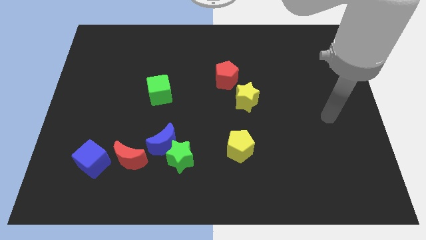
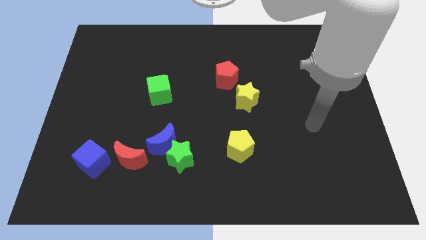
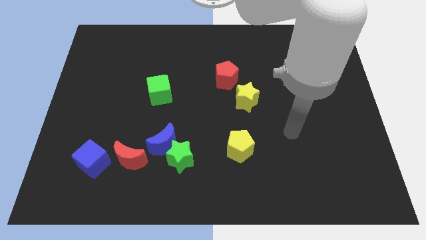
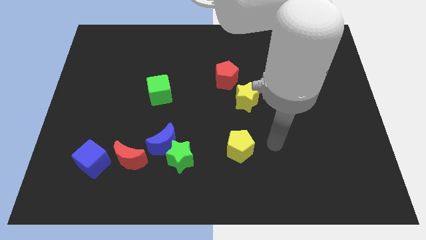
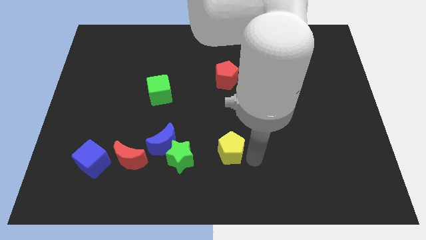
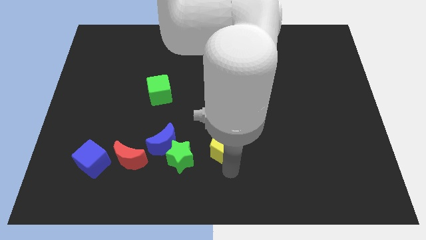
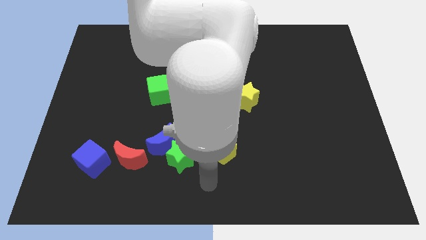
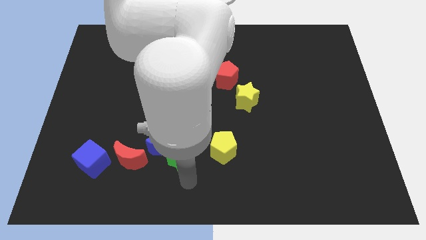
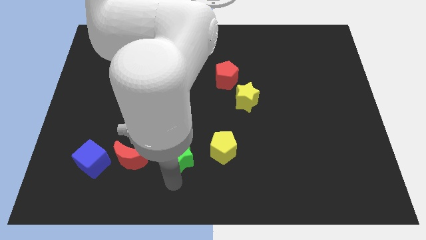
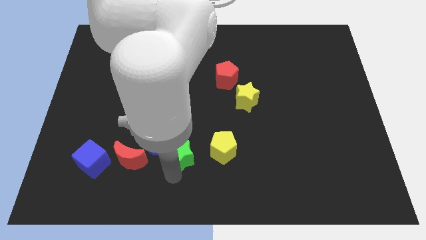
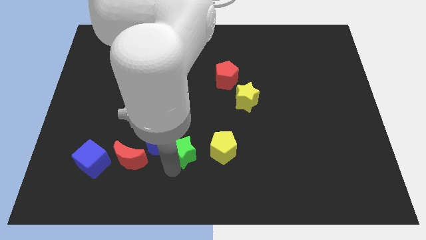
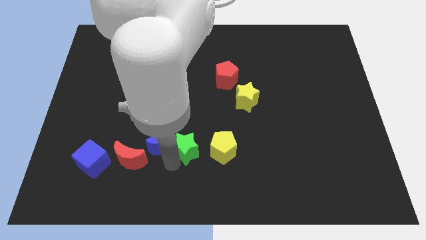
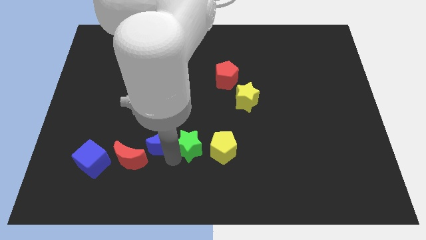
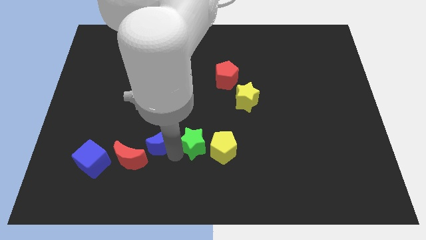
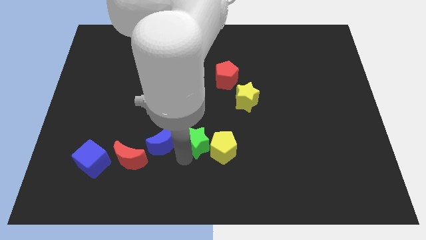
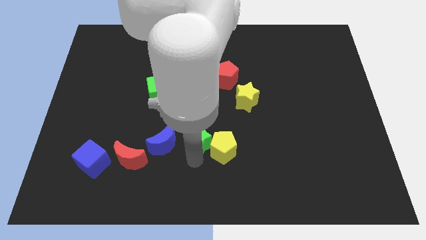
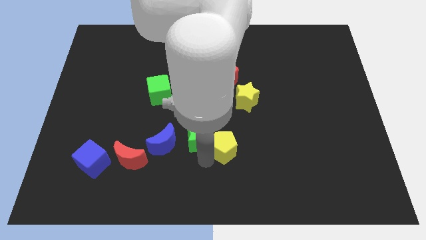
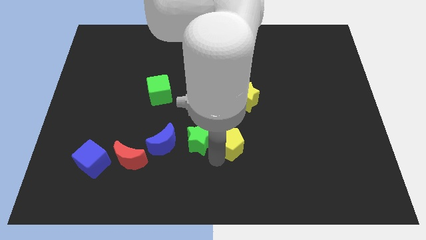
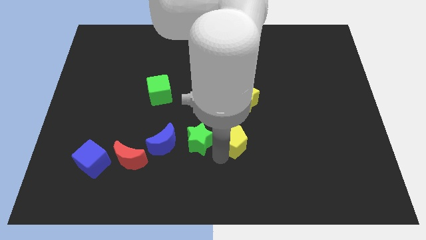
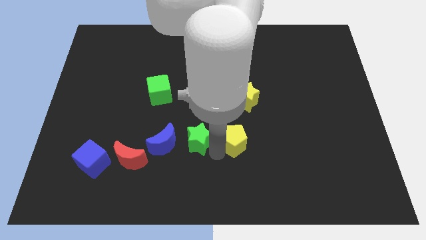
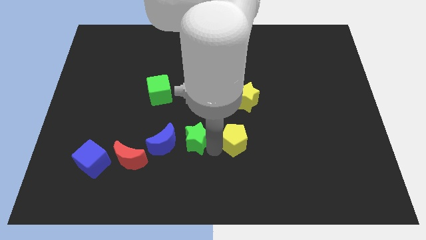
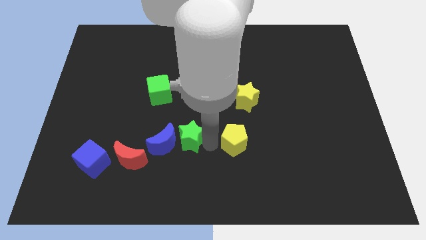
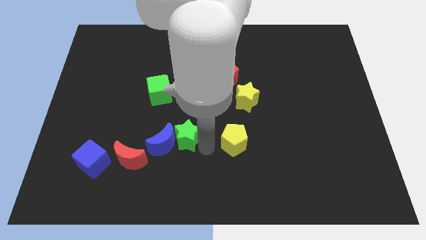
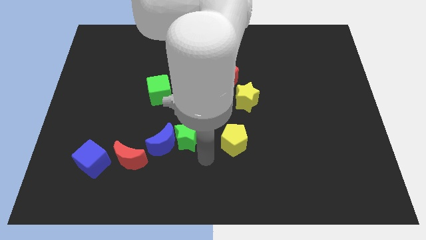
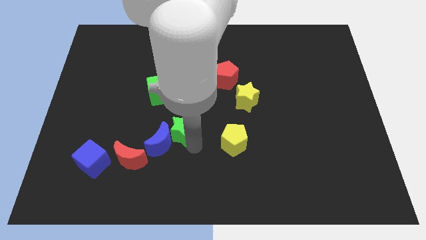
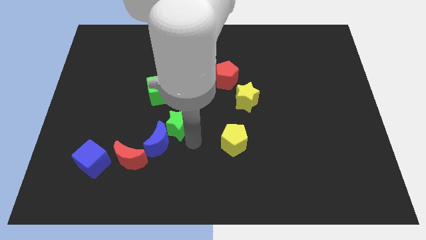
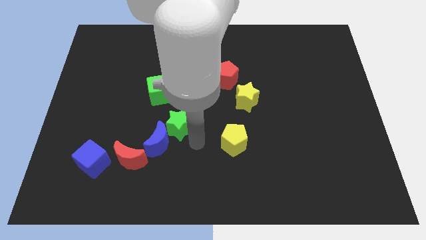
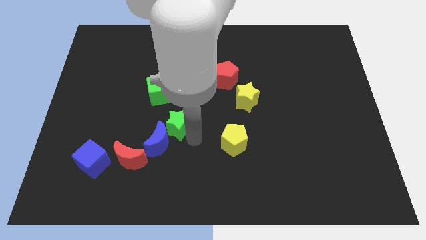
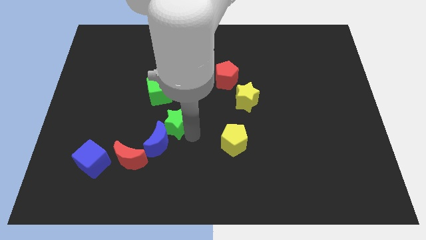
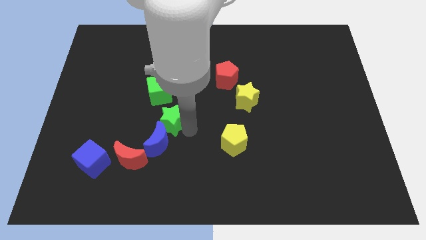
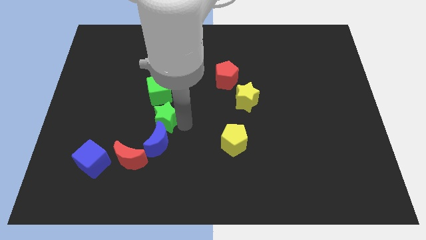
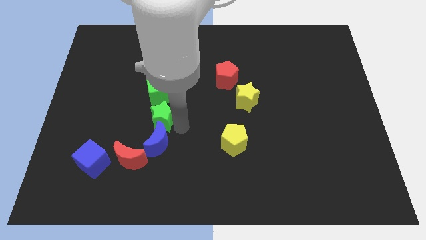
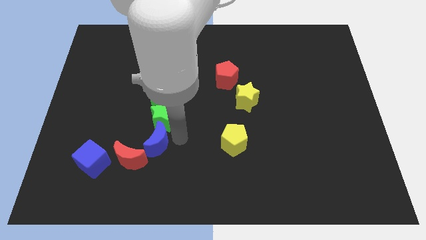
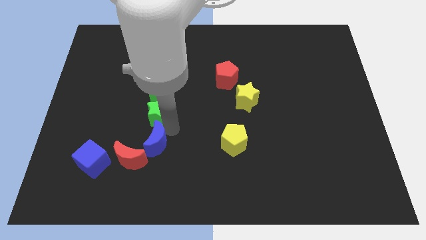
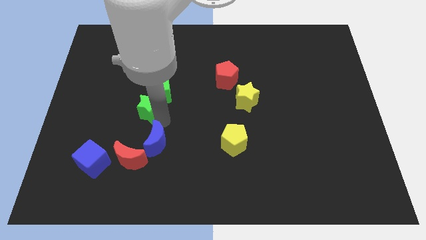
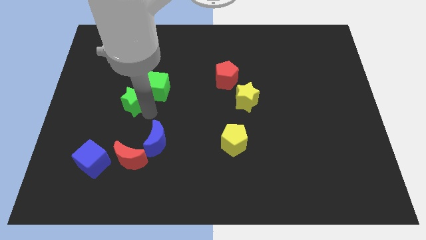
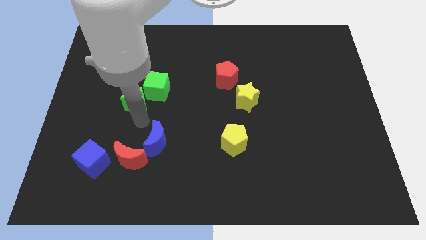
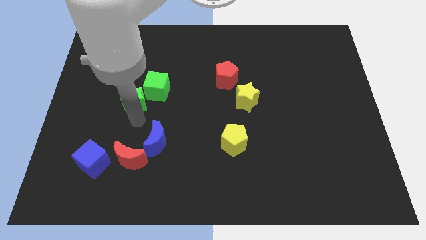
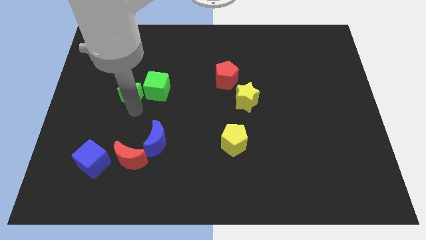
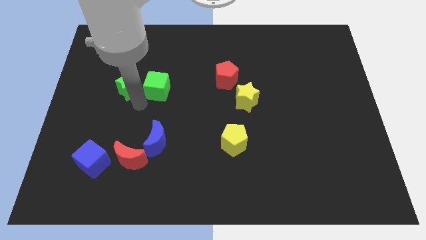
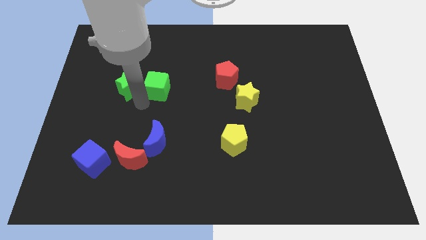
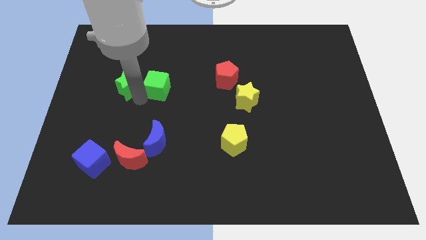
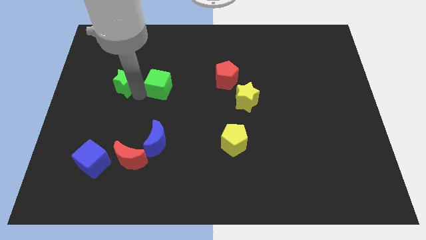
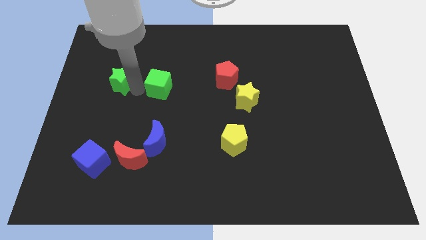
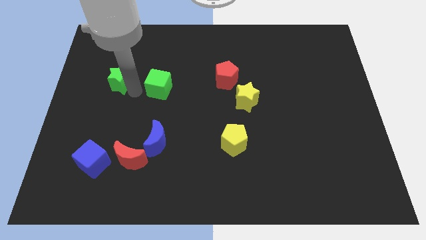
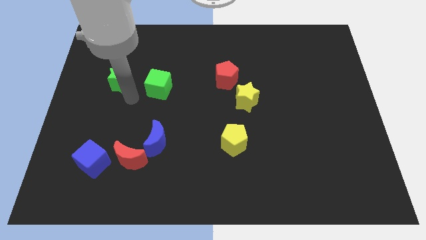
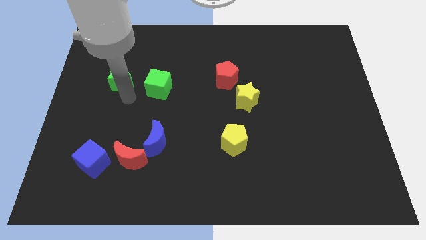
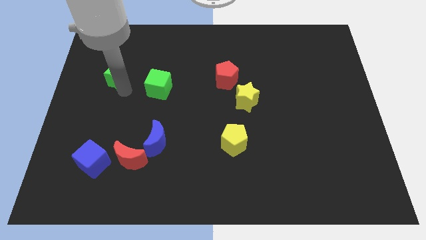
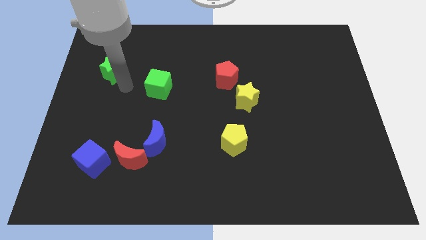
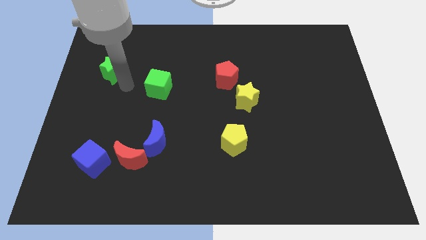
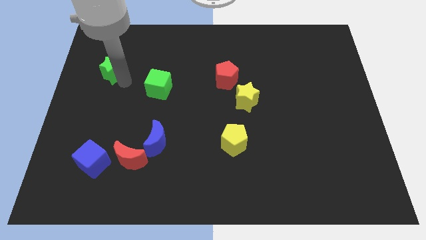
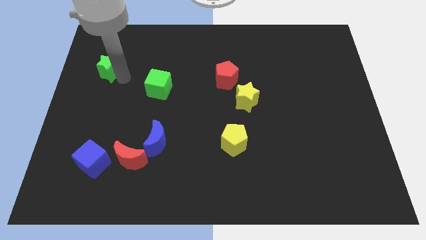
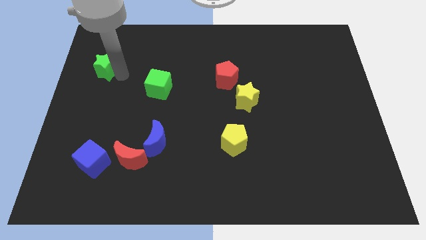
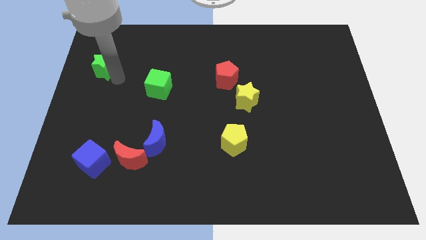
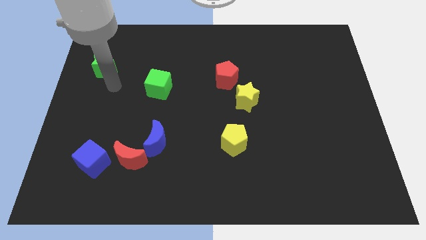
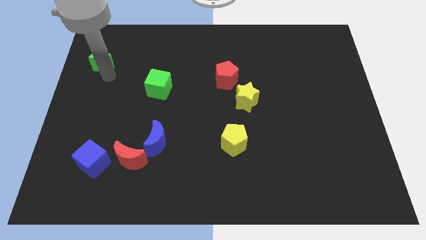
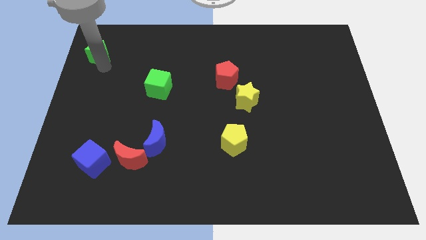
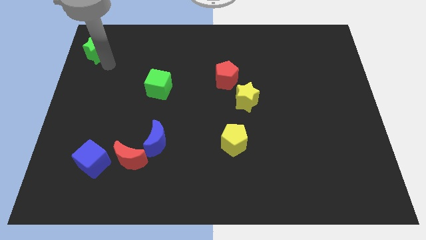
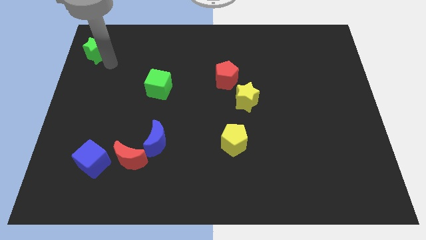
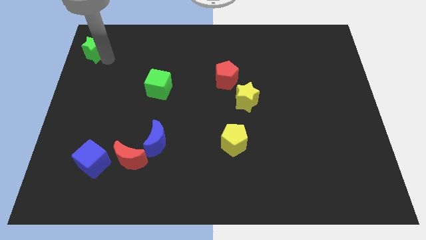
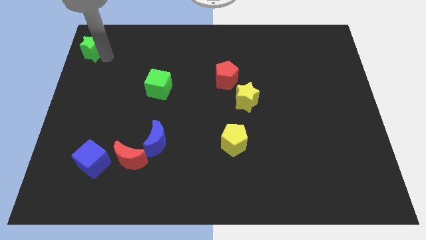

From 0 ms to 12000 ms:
slide the green star to the top left

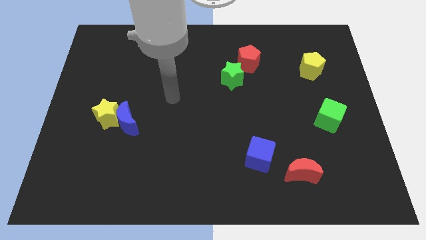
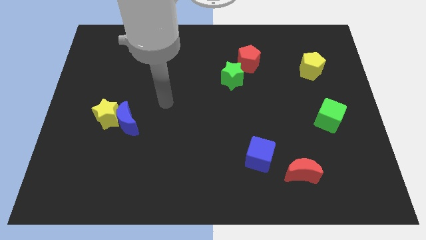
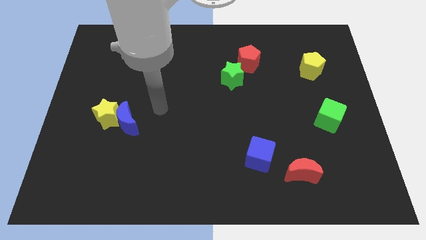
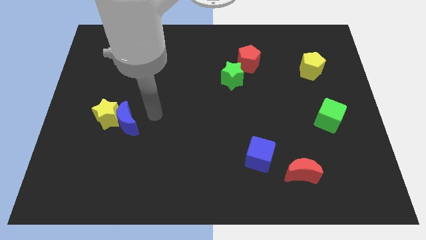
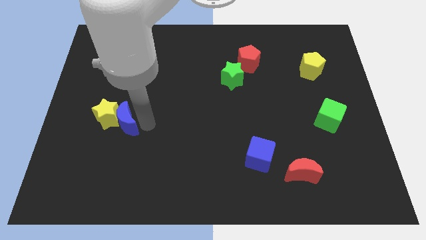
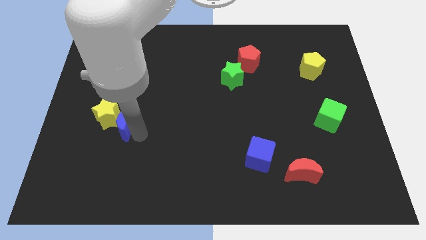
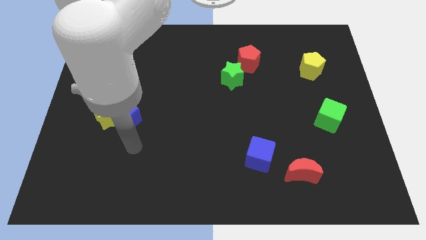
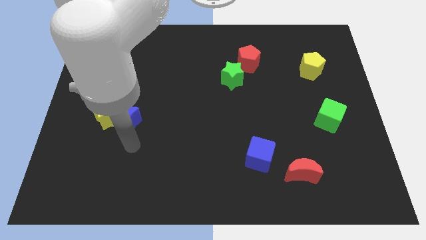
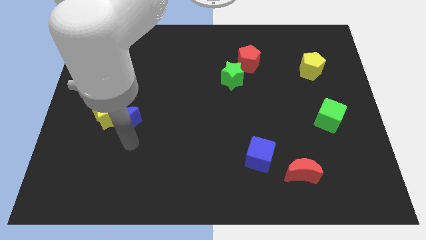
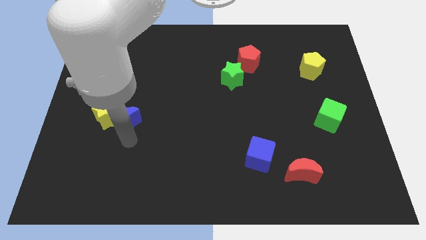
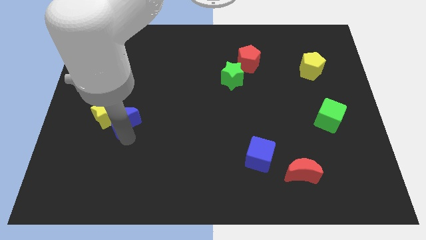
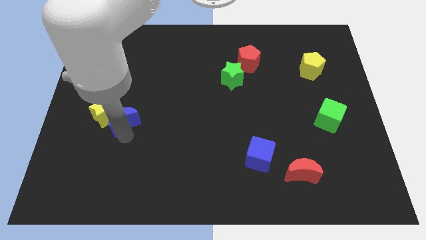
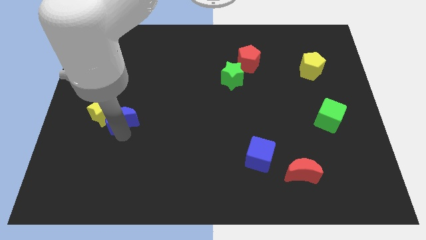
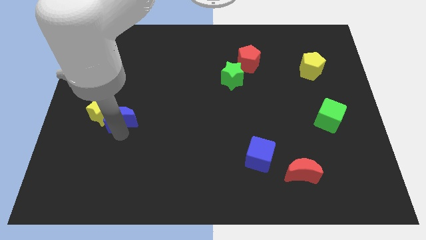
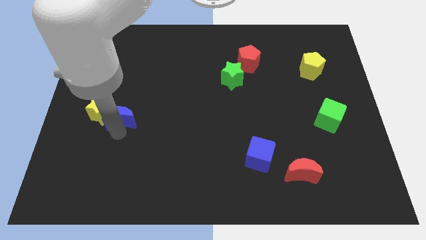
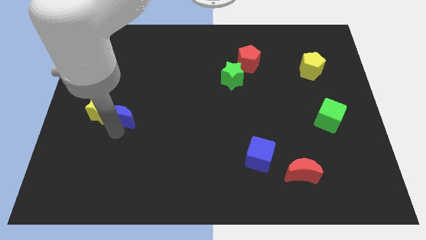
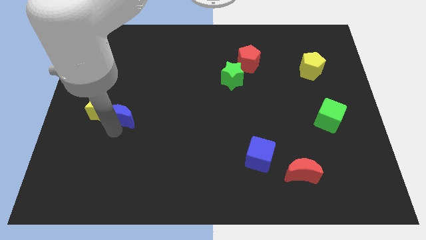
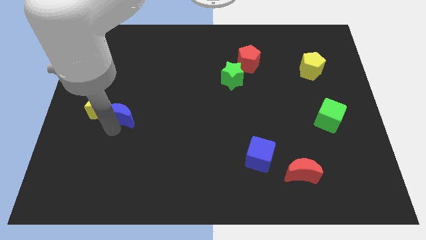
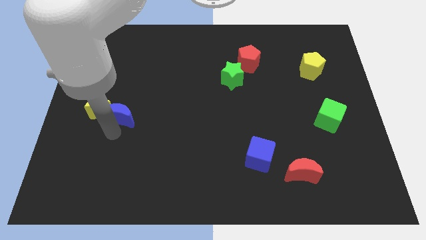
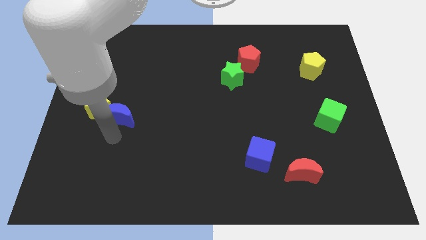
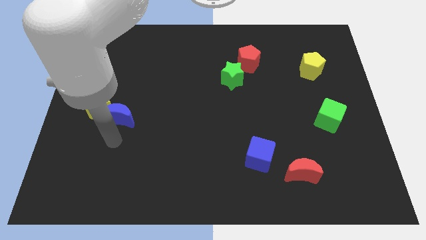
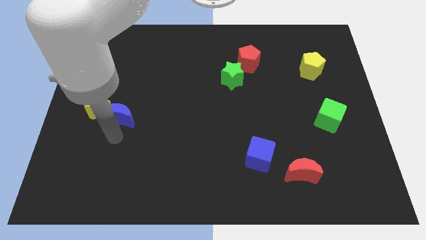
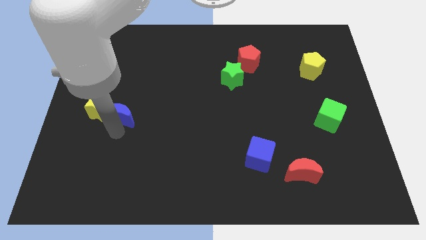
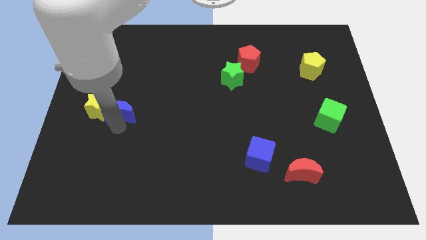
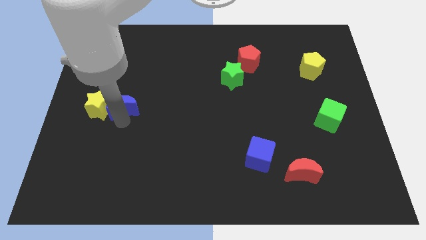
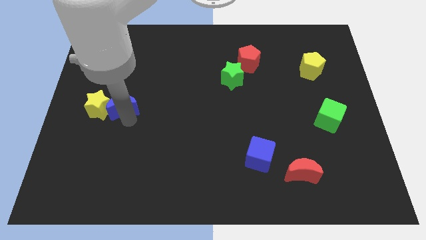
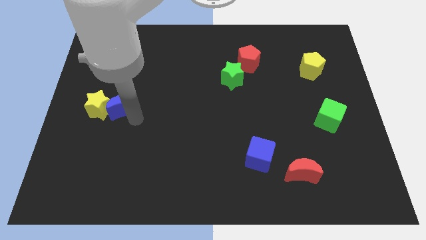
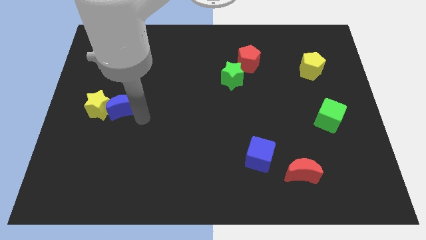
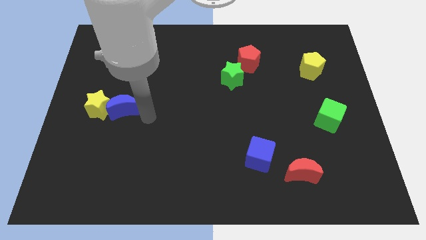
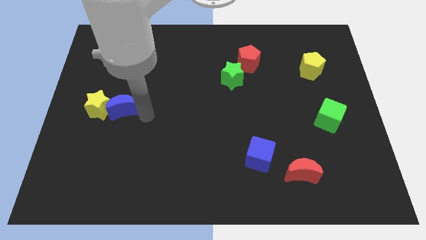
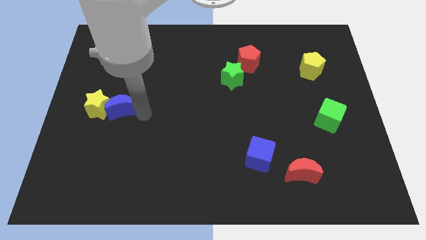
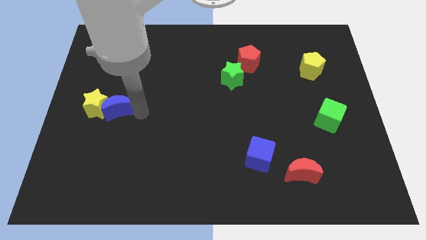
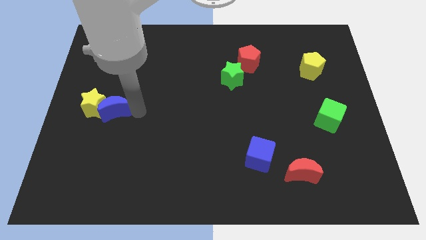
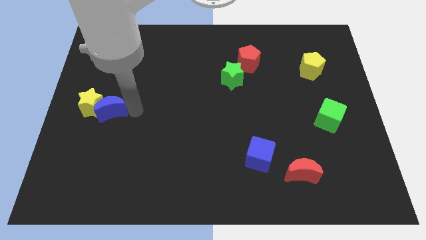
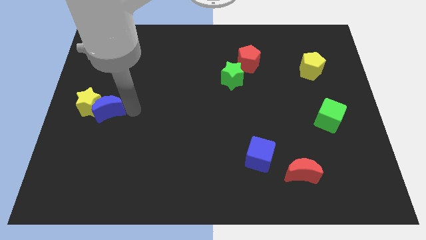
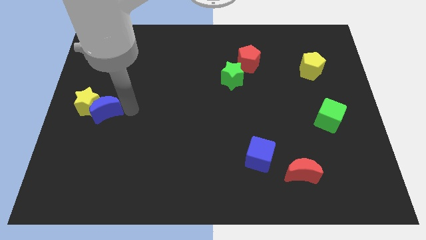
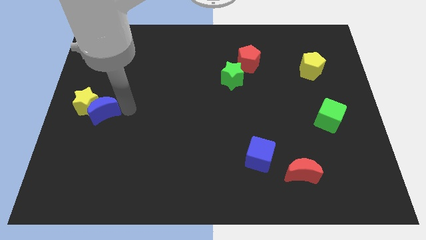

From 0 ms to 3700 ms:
put the blue moon to the left side
